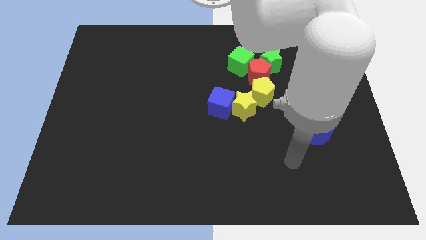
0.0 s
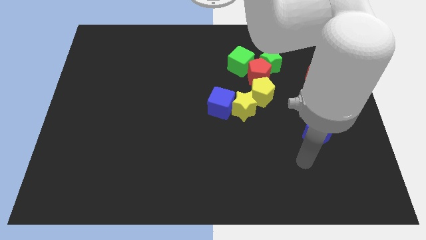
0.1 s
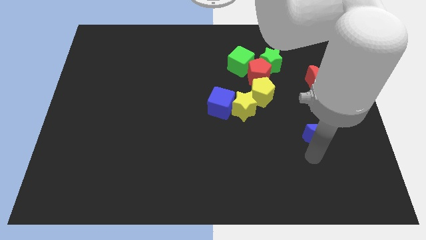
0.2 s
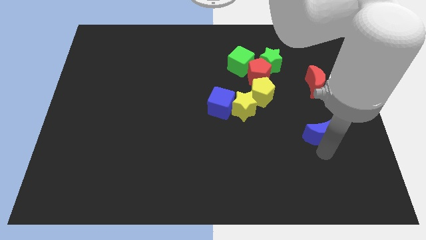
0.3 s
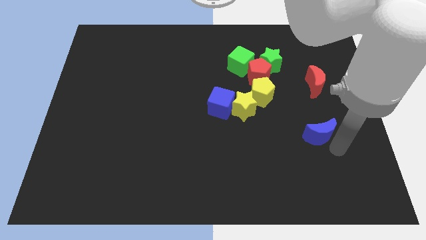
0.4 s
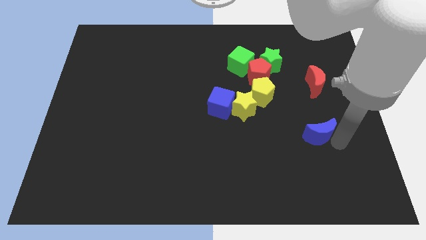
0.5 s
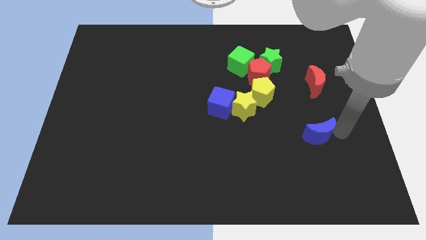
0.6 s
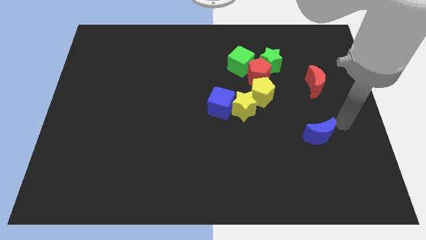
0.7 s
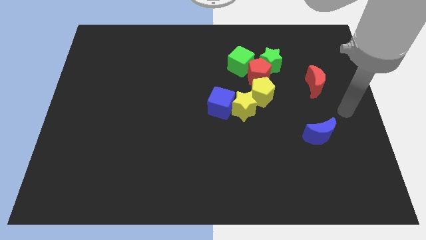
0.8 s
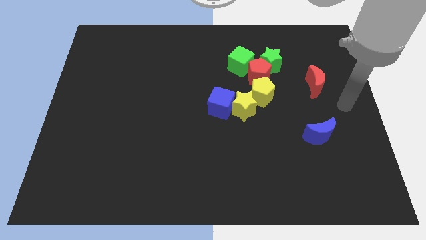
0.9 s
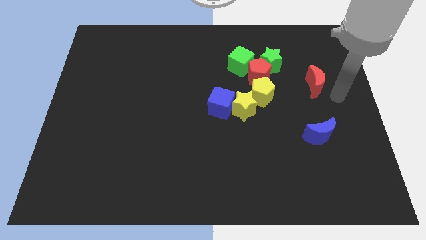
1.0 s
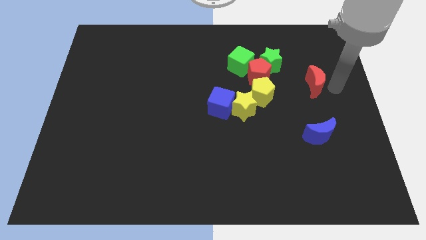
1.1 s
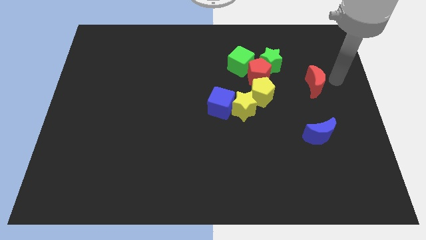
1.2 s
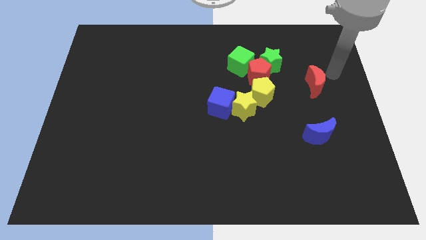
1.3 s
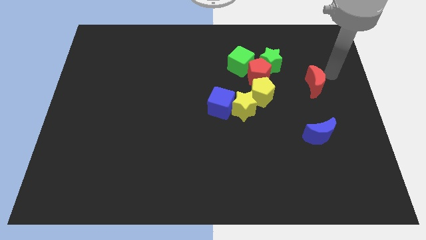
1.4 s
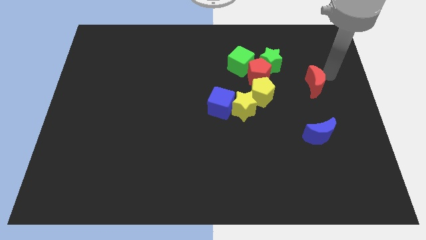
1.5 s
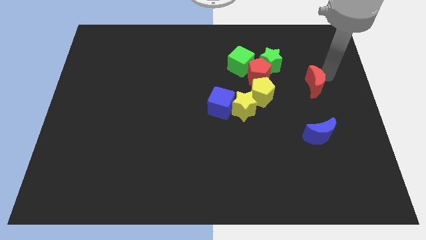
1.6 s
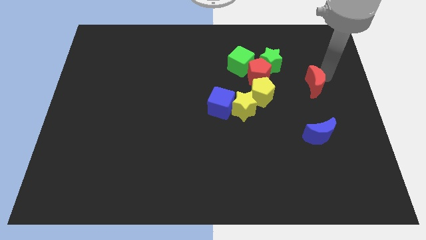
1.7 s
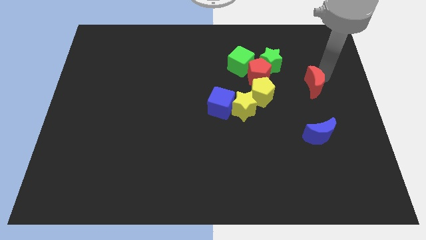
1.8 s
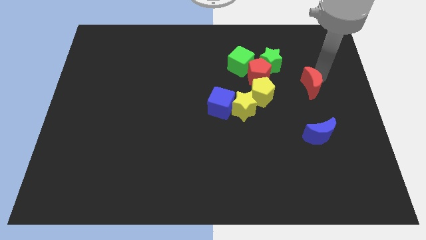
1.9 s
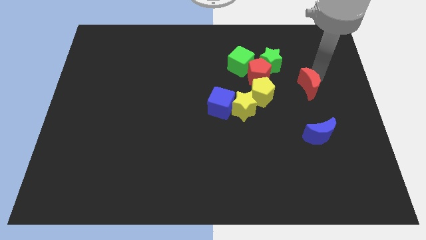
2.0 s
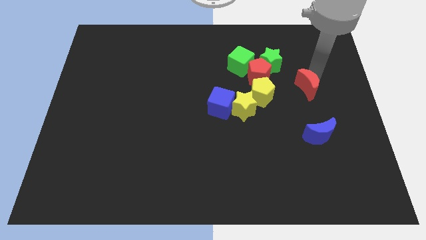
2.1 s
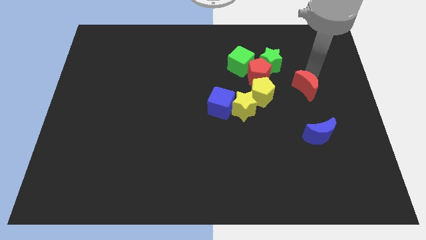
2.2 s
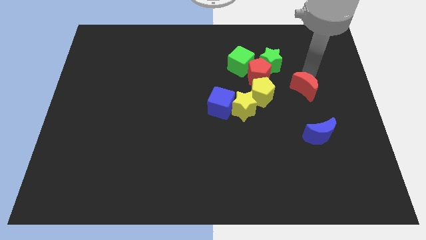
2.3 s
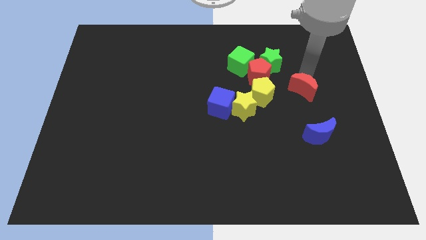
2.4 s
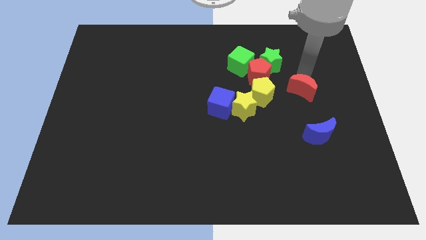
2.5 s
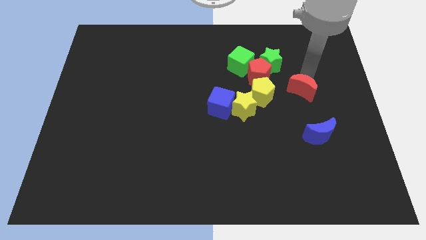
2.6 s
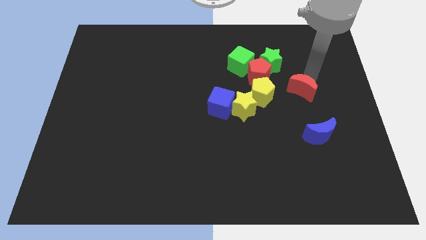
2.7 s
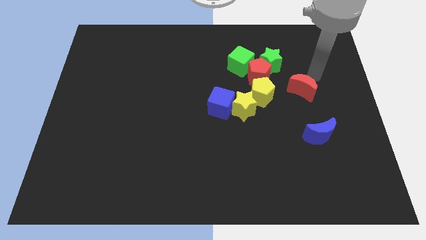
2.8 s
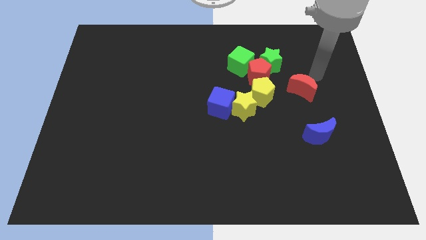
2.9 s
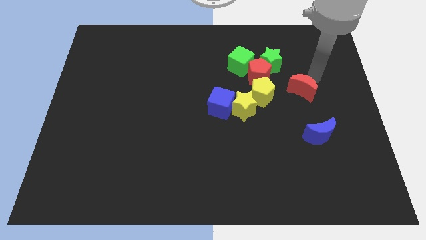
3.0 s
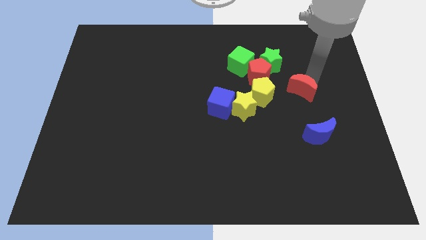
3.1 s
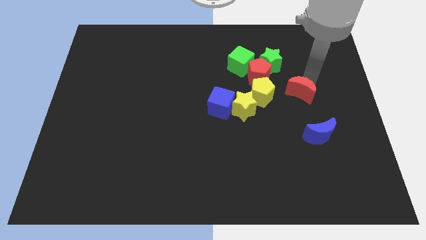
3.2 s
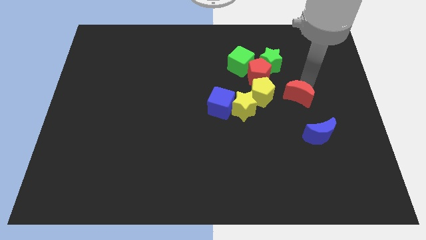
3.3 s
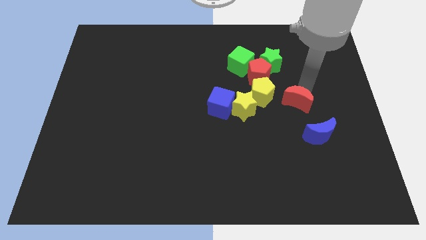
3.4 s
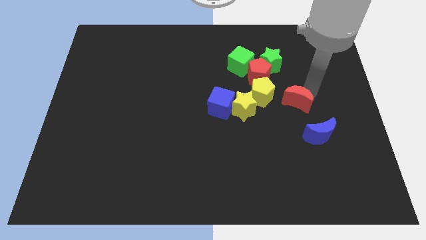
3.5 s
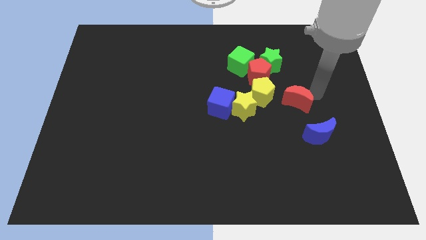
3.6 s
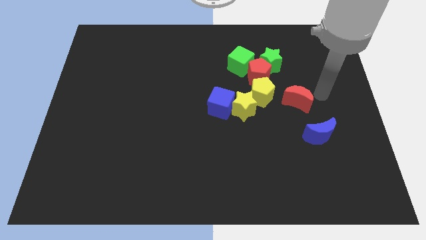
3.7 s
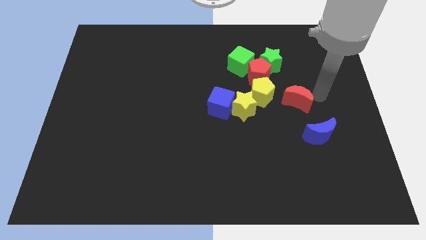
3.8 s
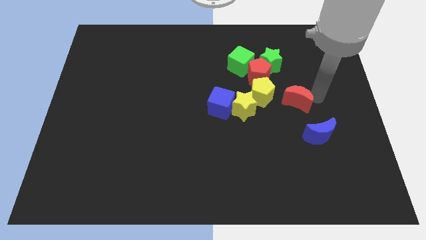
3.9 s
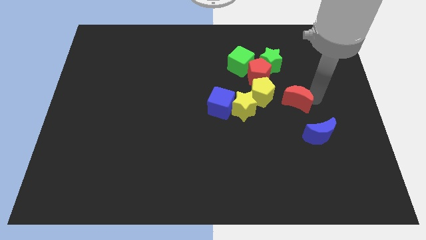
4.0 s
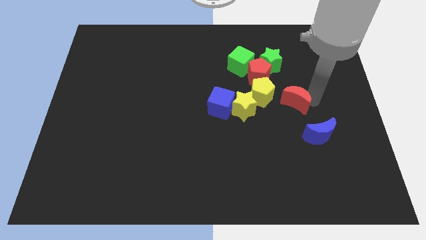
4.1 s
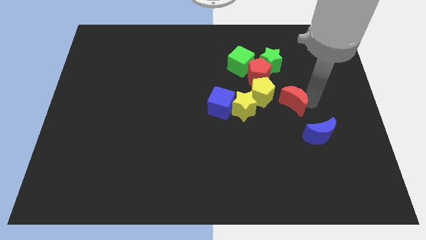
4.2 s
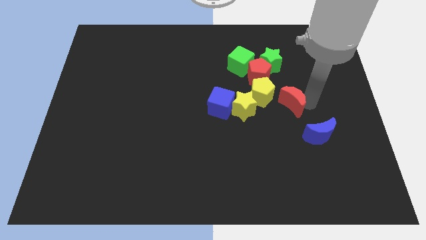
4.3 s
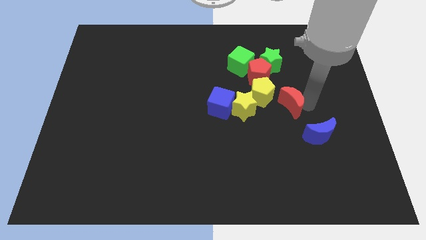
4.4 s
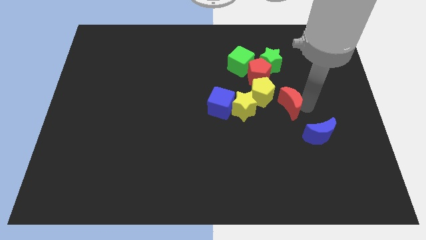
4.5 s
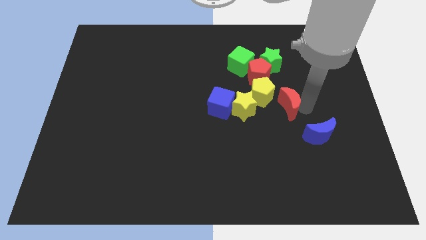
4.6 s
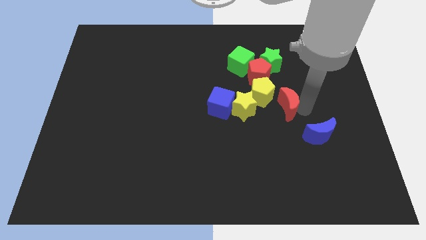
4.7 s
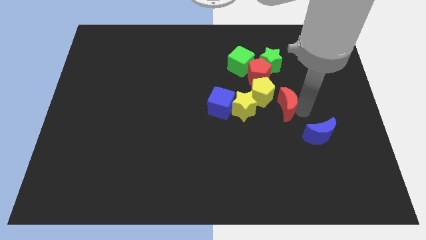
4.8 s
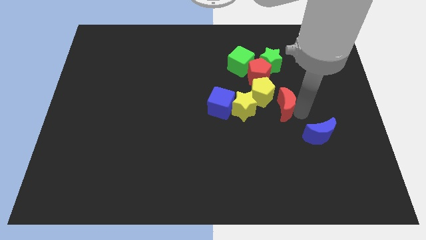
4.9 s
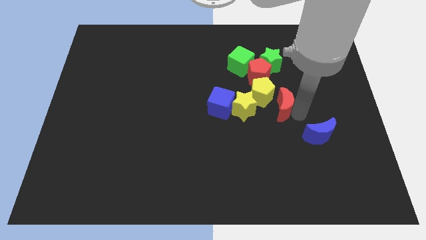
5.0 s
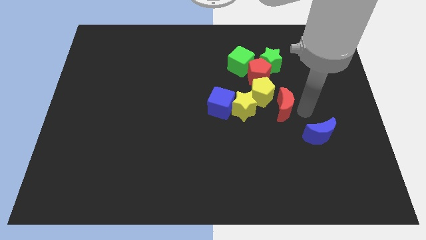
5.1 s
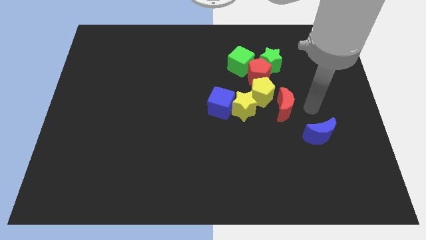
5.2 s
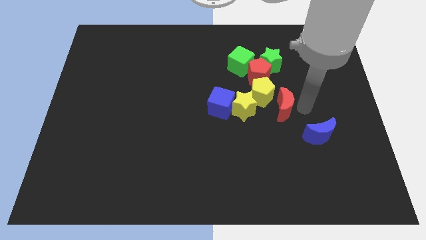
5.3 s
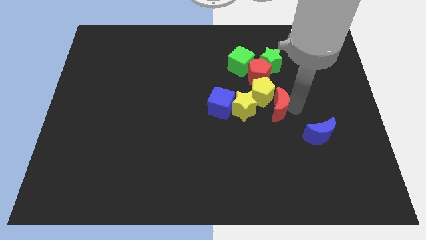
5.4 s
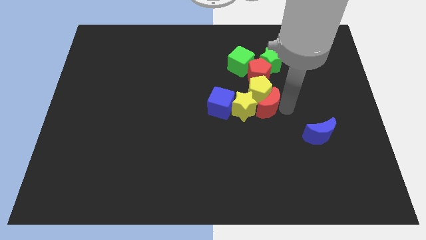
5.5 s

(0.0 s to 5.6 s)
put the red moon to the yellow star

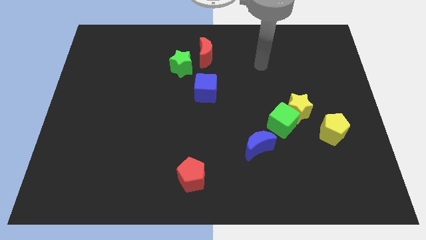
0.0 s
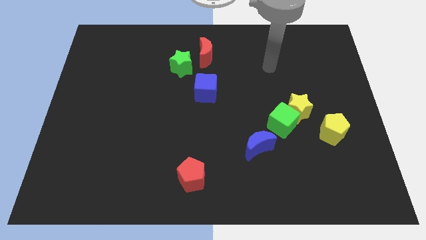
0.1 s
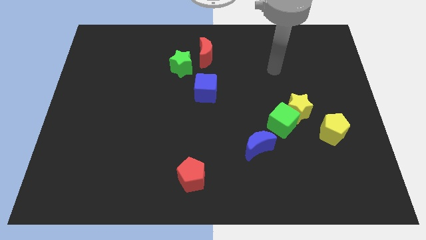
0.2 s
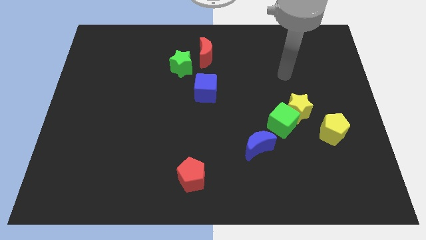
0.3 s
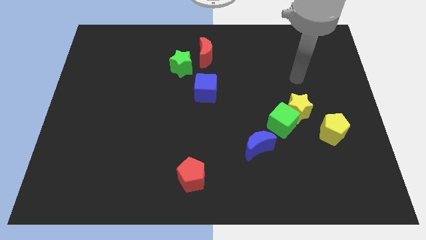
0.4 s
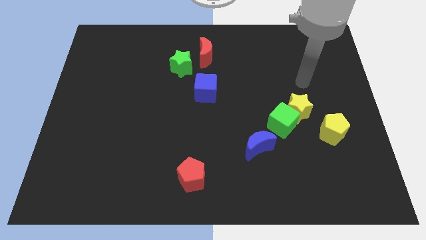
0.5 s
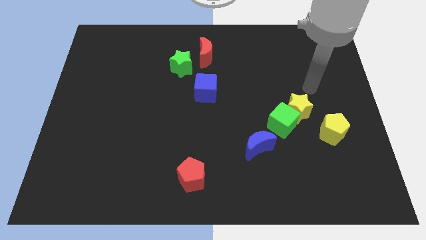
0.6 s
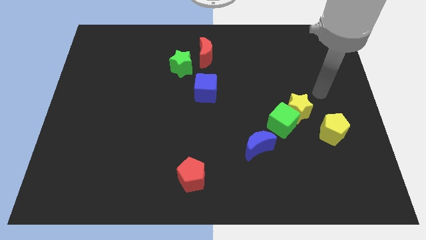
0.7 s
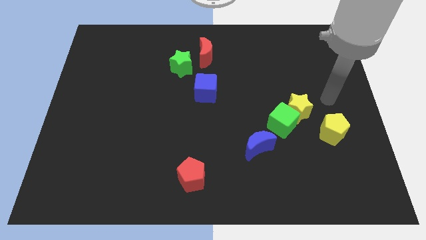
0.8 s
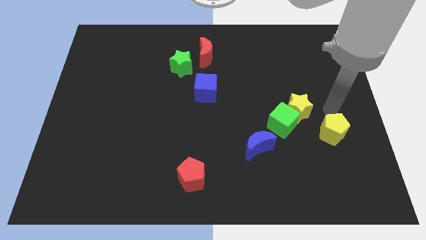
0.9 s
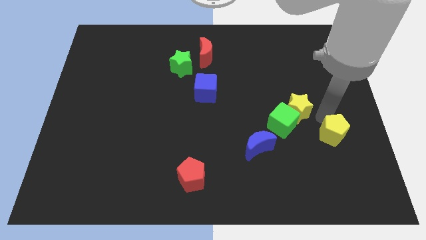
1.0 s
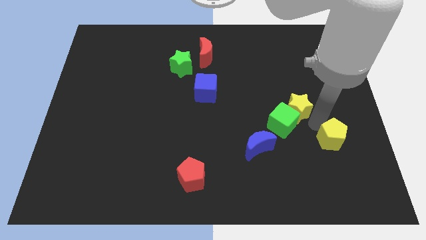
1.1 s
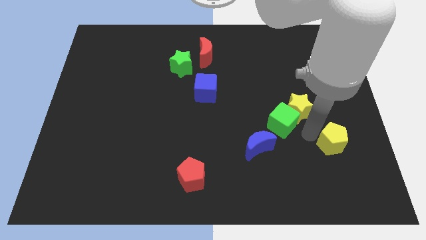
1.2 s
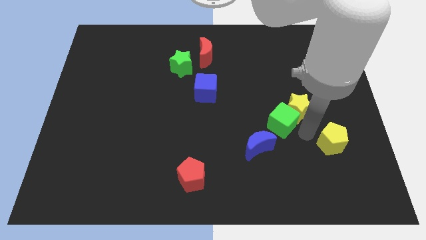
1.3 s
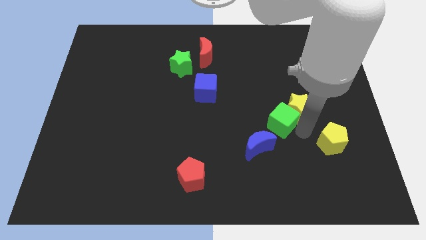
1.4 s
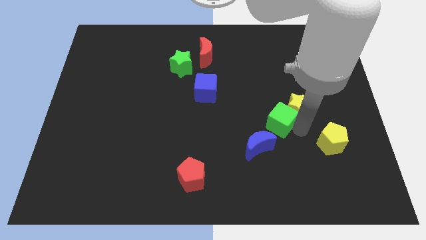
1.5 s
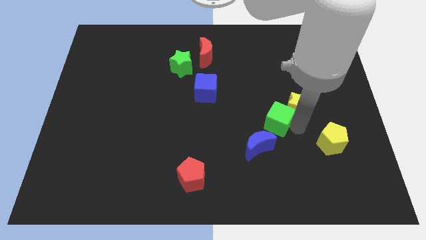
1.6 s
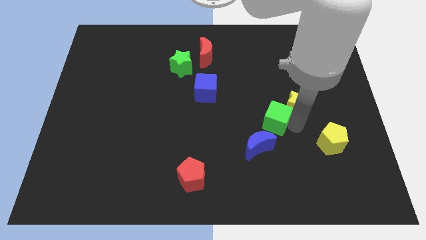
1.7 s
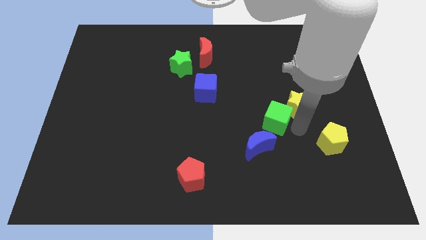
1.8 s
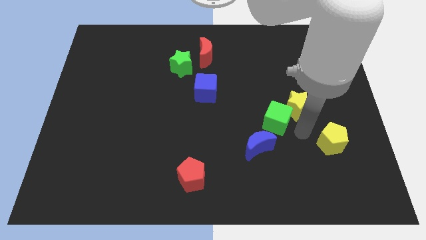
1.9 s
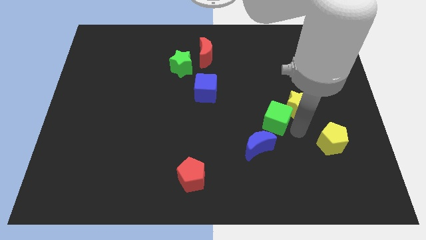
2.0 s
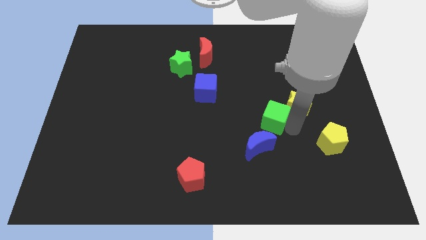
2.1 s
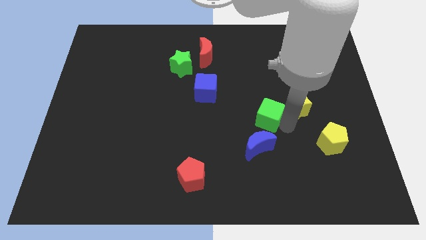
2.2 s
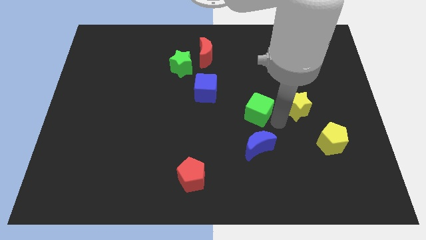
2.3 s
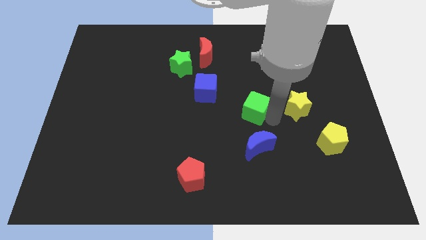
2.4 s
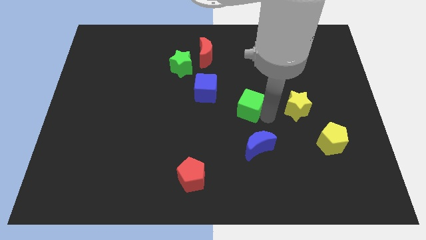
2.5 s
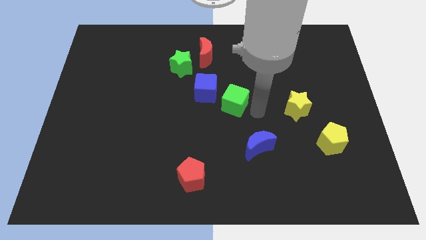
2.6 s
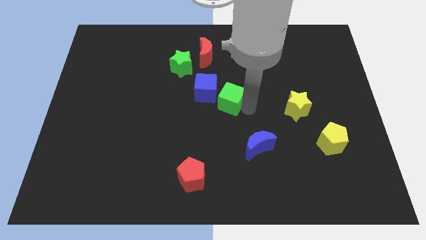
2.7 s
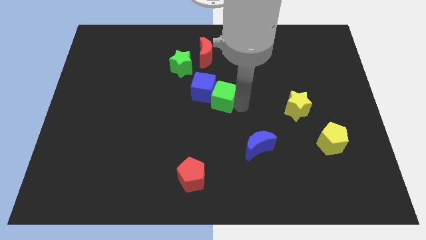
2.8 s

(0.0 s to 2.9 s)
push the green cube close to the blue cube
